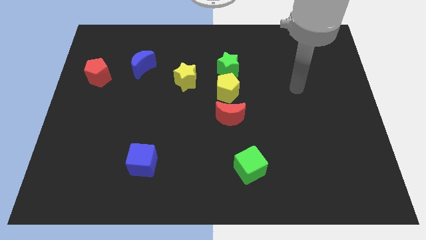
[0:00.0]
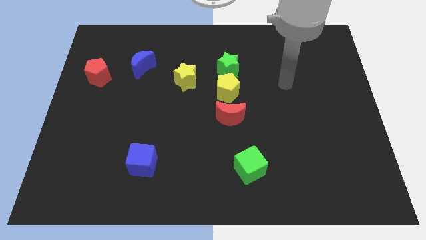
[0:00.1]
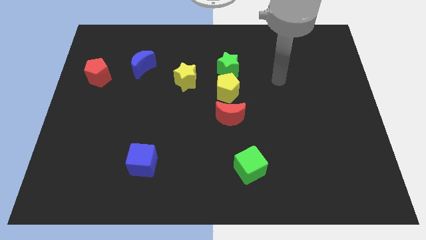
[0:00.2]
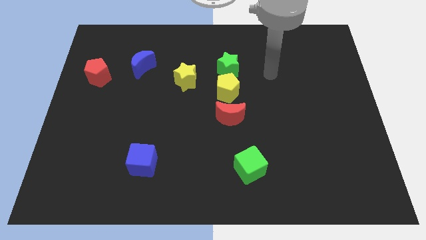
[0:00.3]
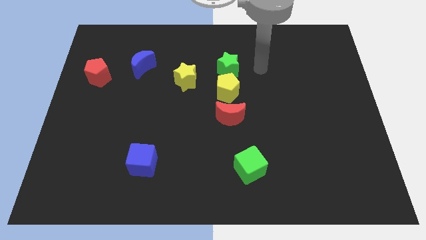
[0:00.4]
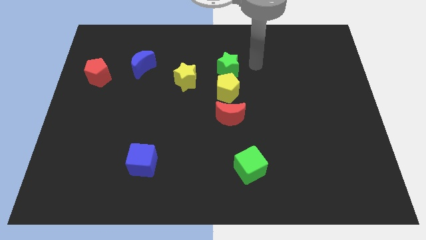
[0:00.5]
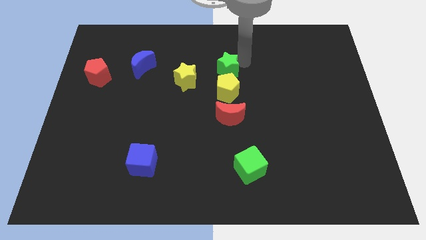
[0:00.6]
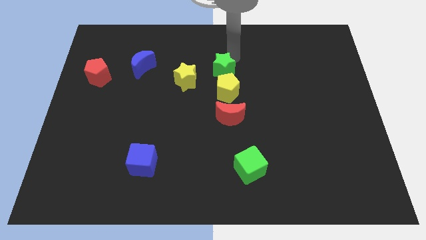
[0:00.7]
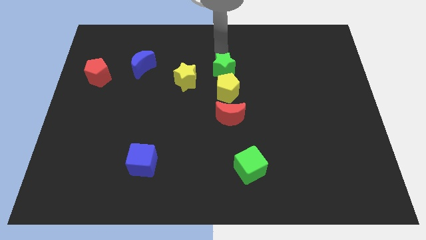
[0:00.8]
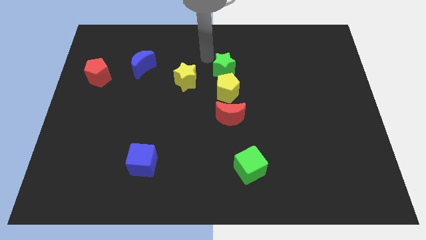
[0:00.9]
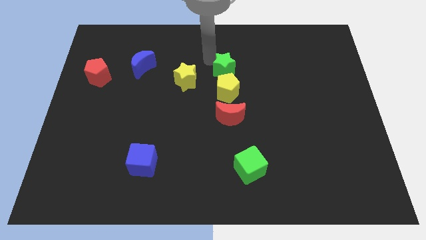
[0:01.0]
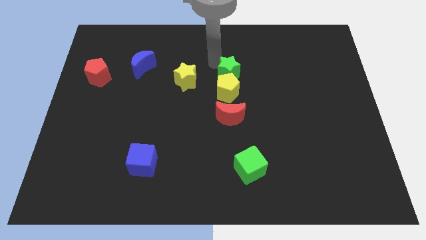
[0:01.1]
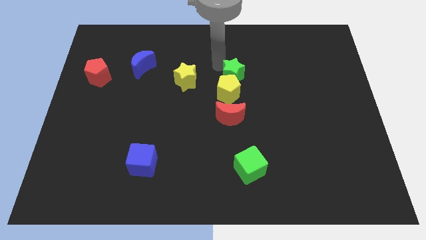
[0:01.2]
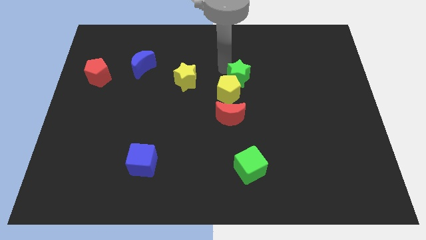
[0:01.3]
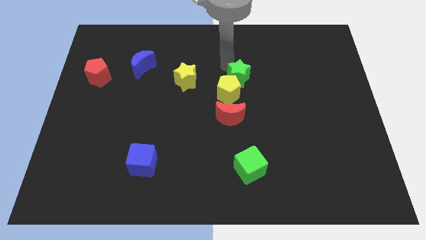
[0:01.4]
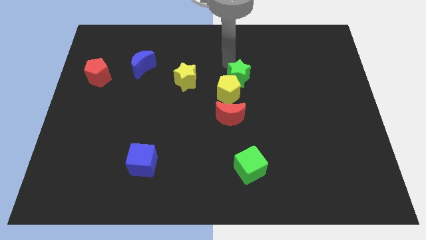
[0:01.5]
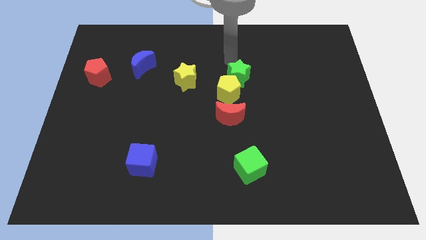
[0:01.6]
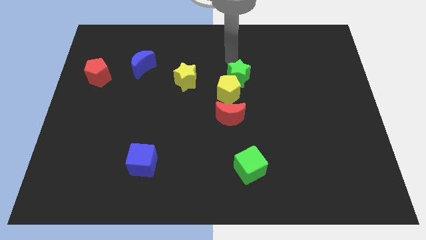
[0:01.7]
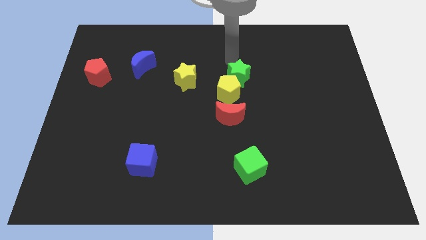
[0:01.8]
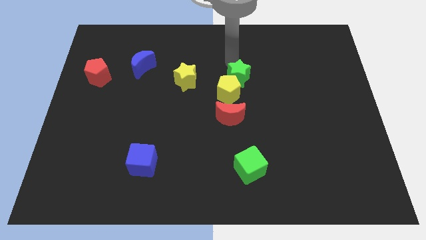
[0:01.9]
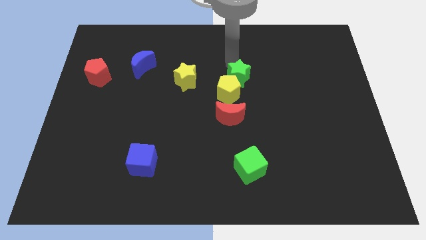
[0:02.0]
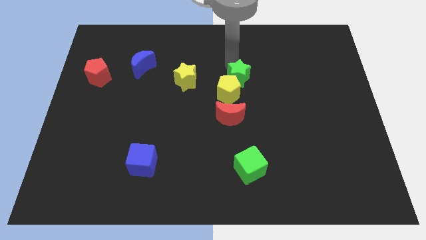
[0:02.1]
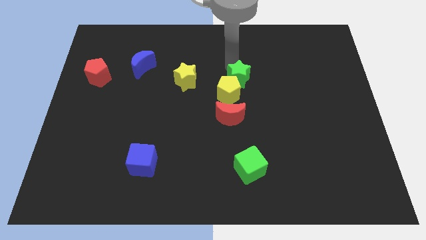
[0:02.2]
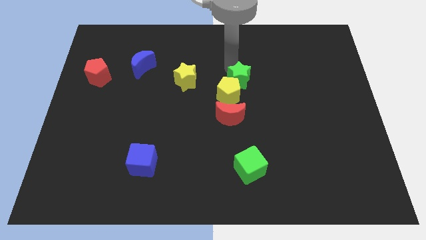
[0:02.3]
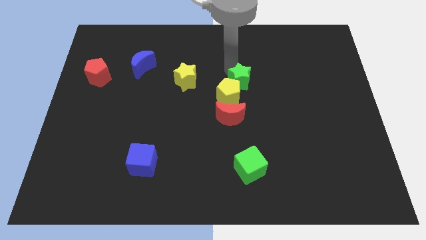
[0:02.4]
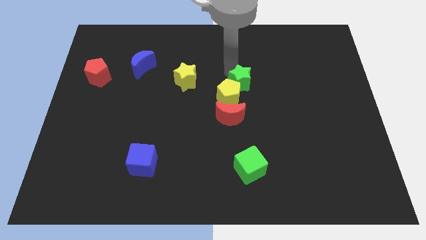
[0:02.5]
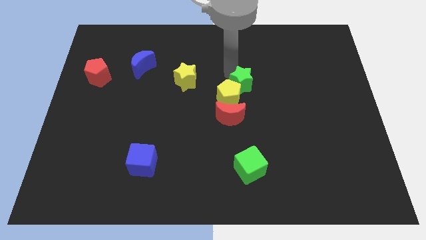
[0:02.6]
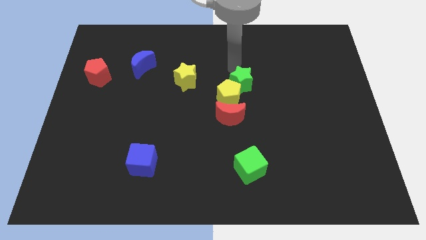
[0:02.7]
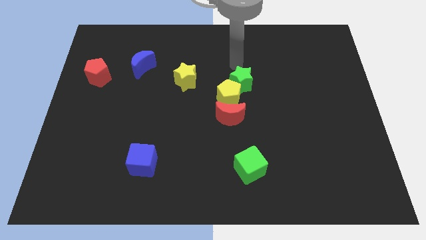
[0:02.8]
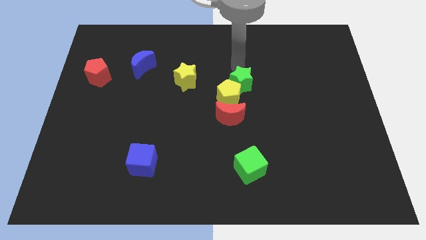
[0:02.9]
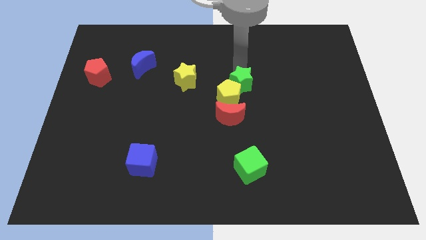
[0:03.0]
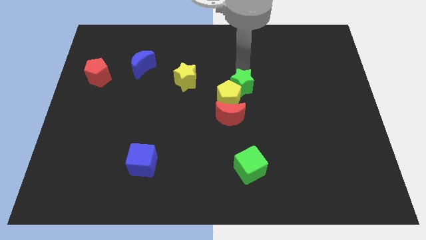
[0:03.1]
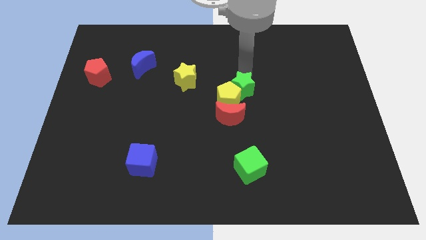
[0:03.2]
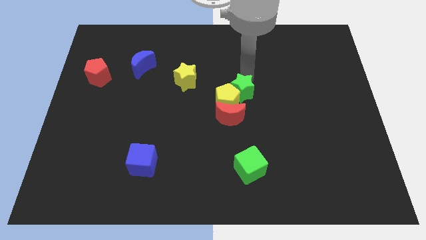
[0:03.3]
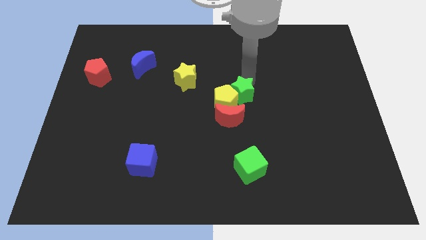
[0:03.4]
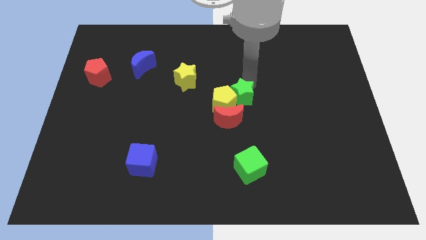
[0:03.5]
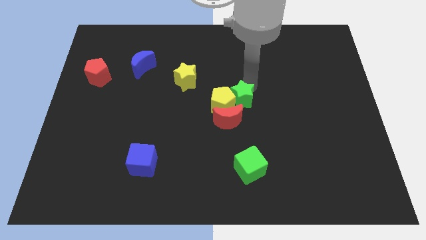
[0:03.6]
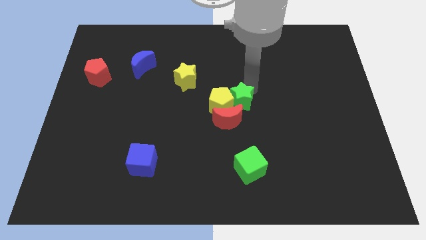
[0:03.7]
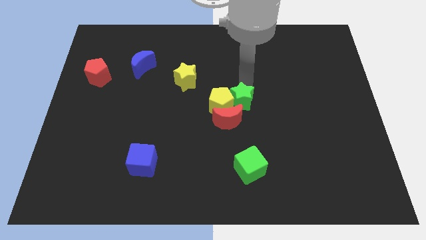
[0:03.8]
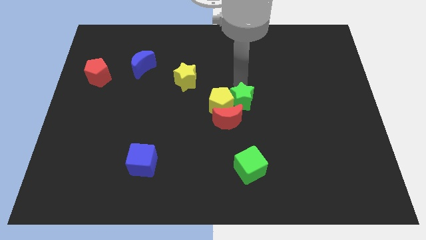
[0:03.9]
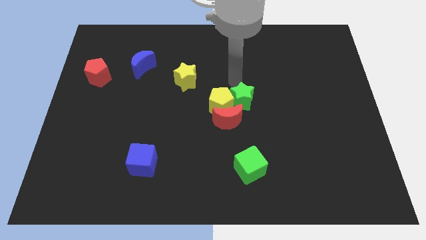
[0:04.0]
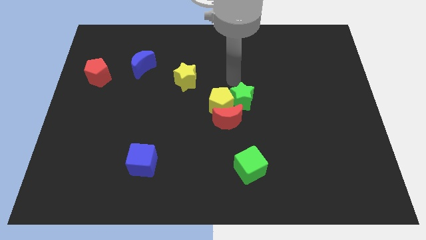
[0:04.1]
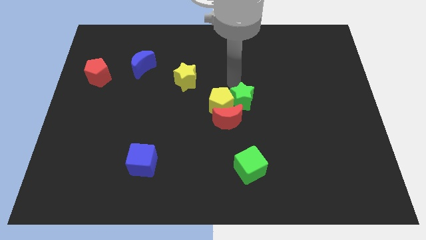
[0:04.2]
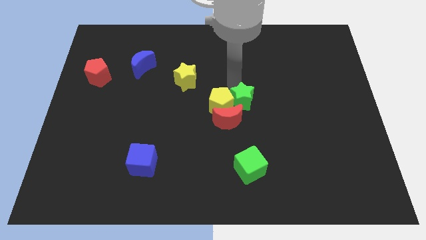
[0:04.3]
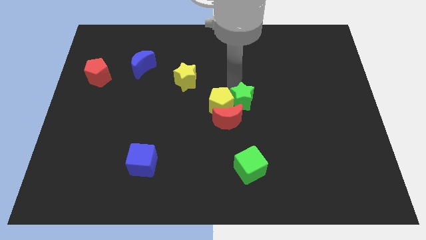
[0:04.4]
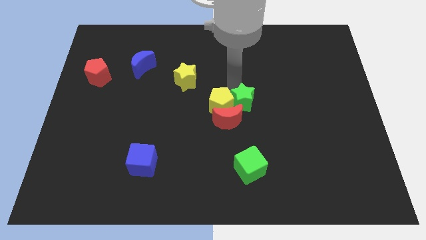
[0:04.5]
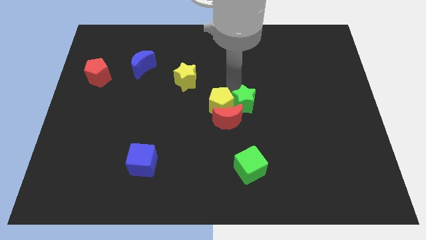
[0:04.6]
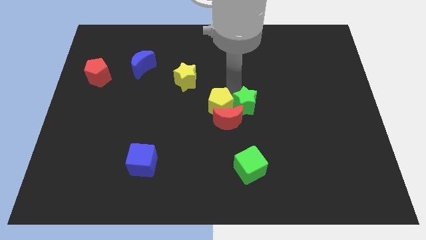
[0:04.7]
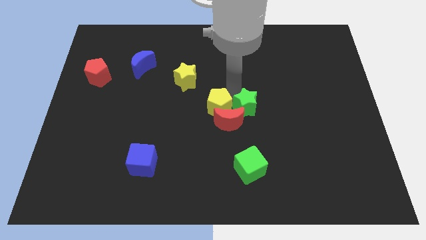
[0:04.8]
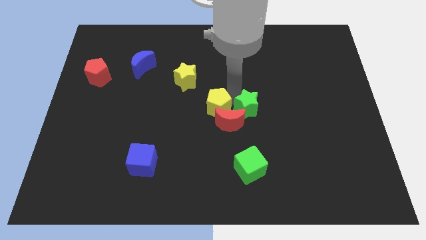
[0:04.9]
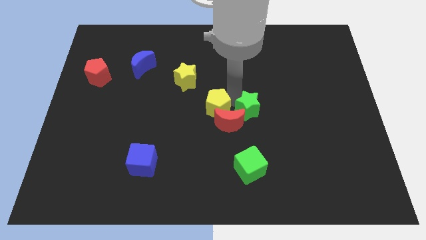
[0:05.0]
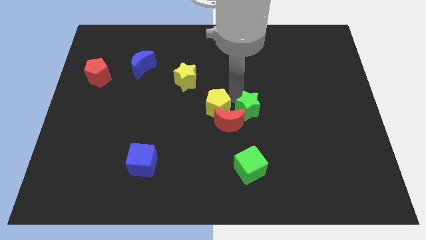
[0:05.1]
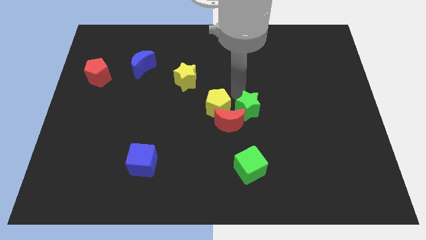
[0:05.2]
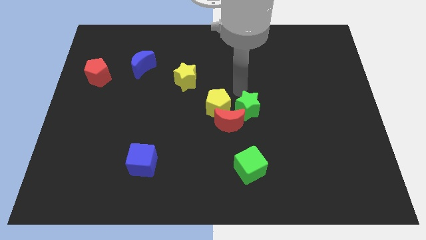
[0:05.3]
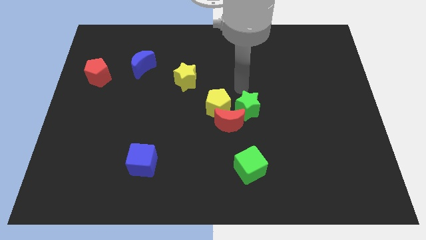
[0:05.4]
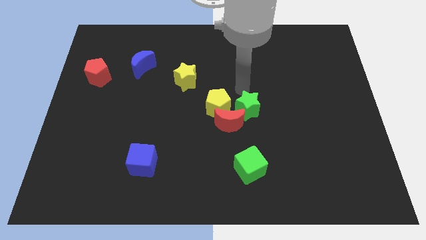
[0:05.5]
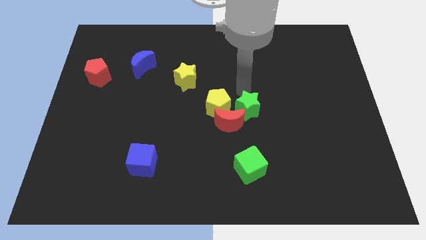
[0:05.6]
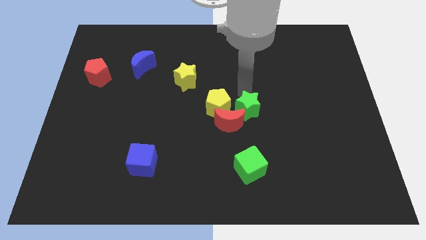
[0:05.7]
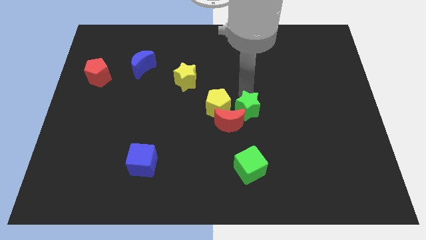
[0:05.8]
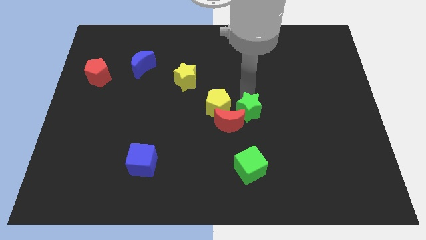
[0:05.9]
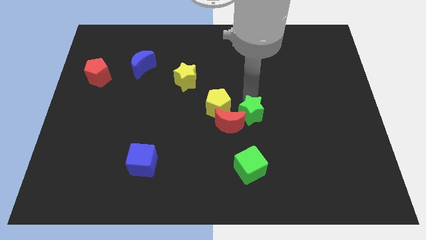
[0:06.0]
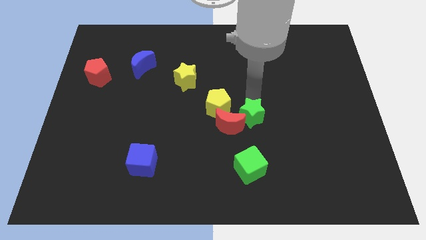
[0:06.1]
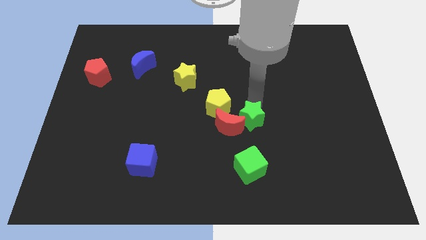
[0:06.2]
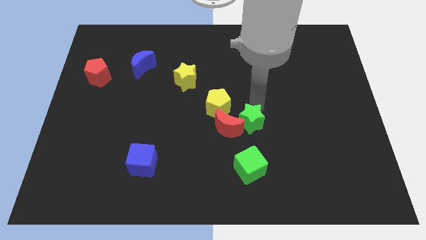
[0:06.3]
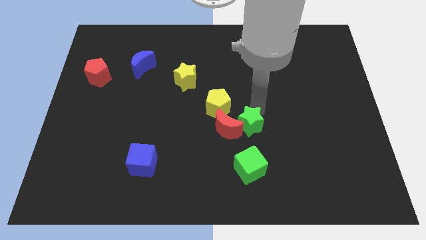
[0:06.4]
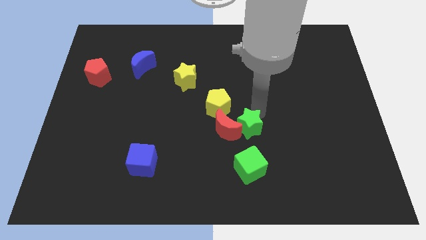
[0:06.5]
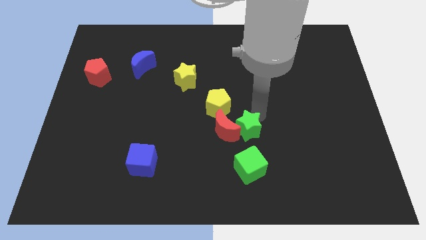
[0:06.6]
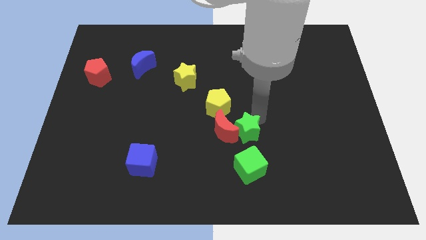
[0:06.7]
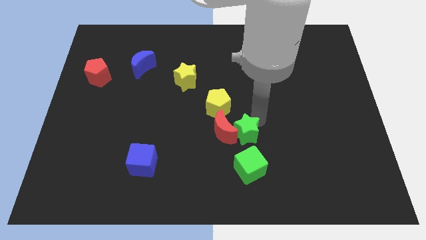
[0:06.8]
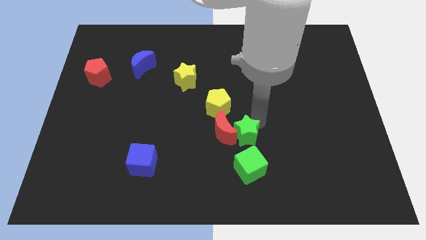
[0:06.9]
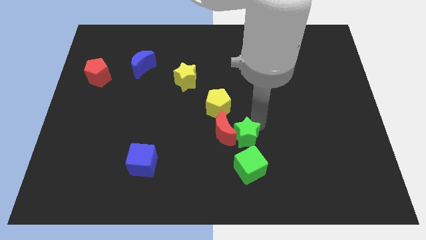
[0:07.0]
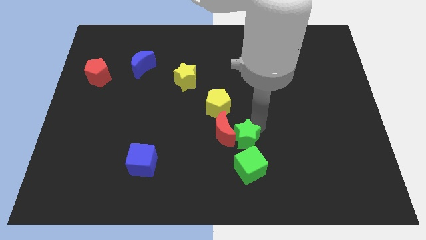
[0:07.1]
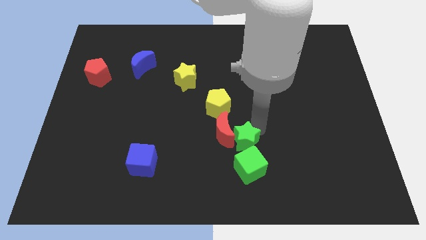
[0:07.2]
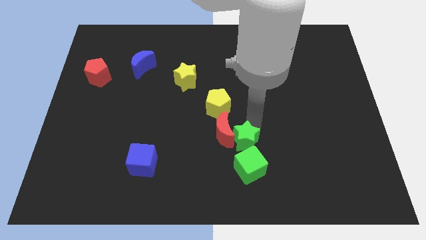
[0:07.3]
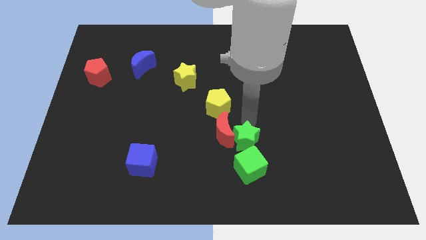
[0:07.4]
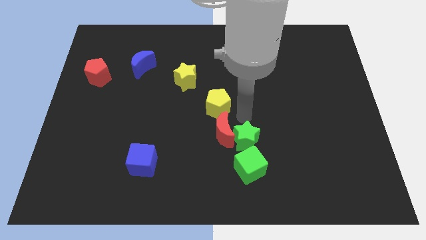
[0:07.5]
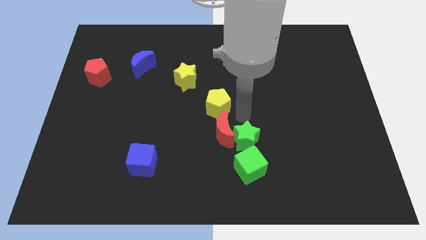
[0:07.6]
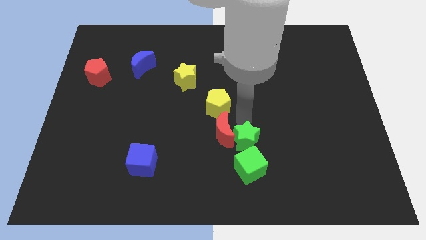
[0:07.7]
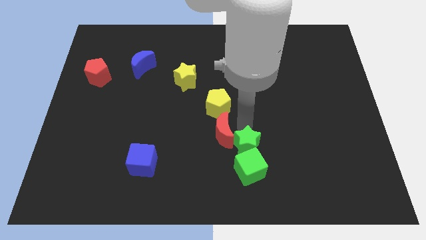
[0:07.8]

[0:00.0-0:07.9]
push the green star close to the green cube
